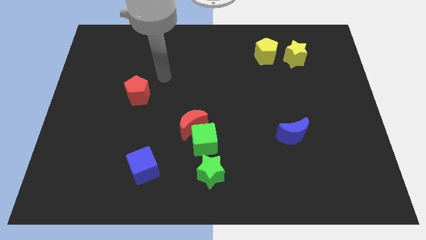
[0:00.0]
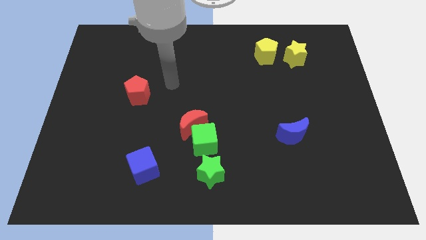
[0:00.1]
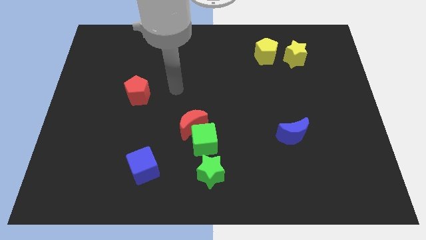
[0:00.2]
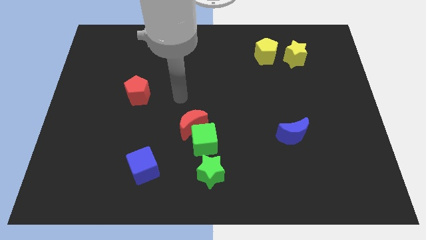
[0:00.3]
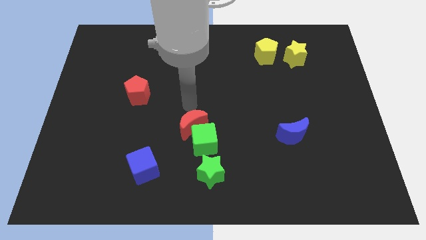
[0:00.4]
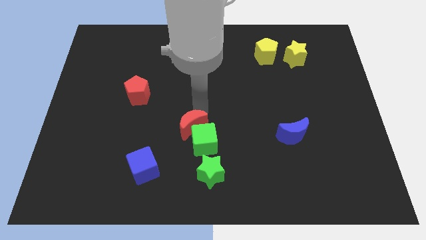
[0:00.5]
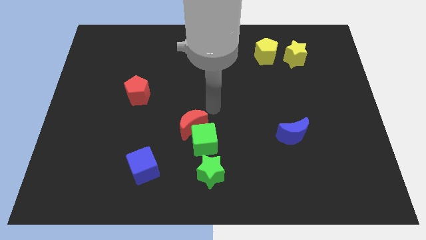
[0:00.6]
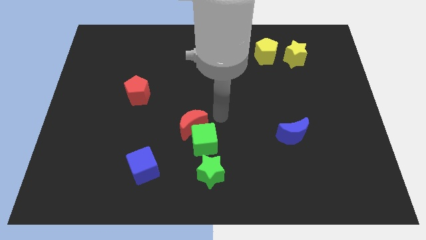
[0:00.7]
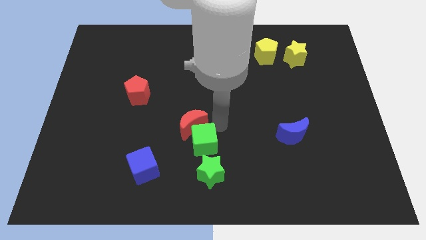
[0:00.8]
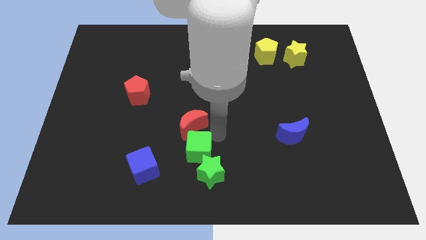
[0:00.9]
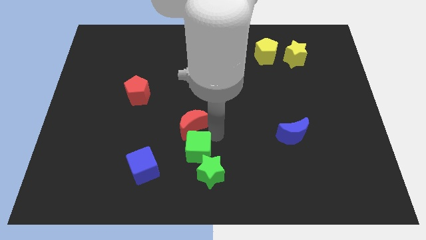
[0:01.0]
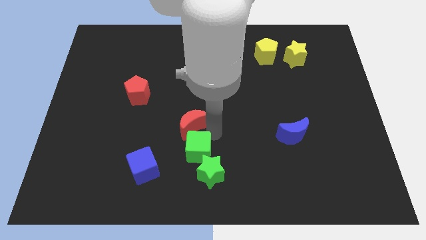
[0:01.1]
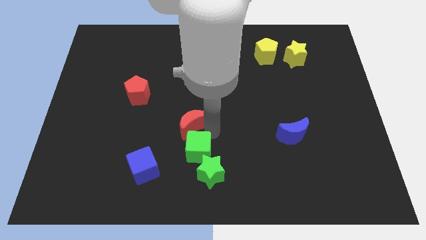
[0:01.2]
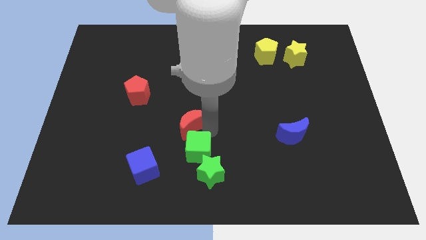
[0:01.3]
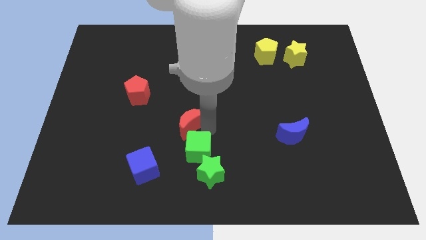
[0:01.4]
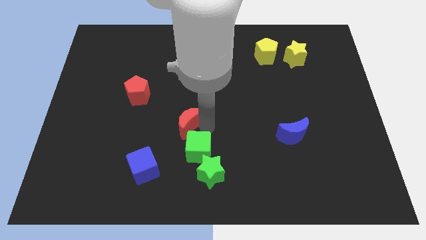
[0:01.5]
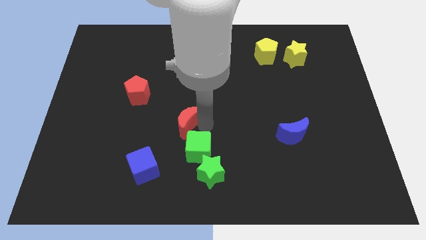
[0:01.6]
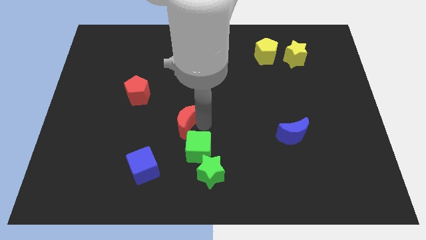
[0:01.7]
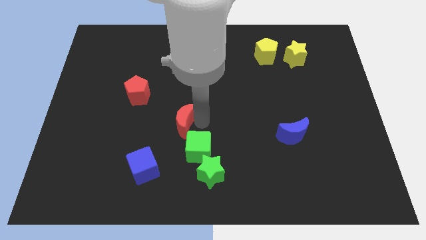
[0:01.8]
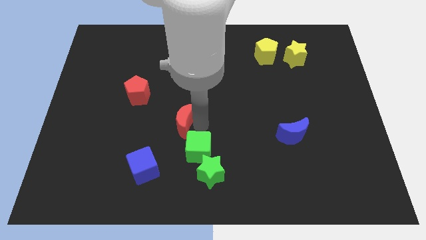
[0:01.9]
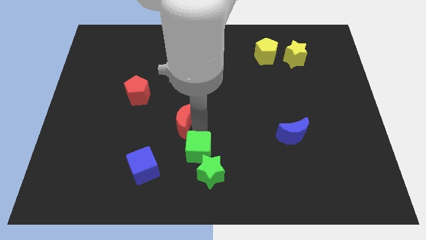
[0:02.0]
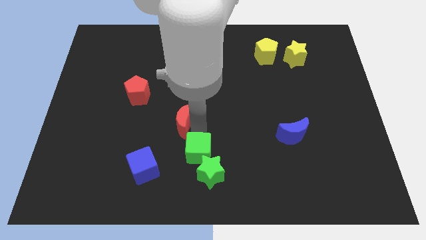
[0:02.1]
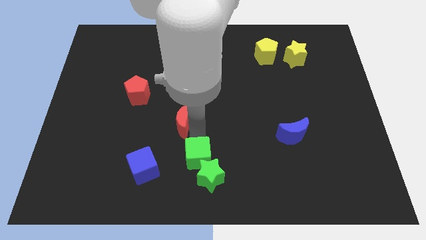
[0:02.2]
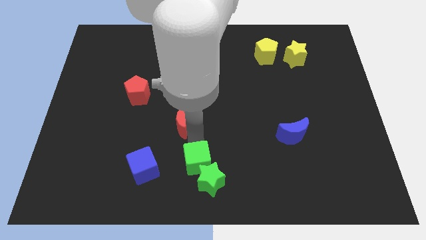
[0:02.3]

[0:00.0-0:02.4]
pull the red moon apart from the green cube

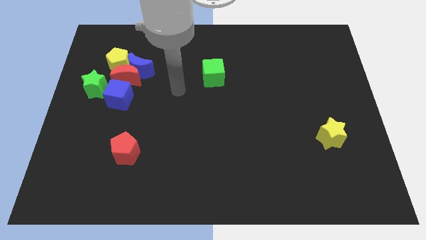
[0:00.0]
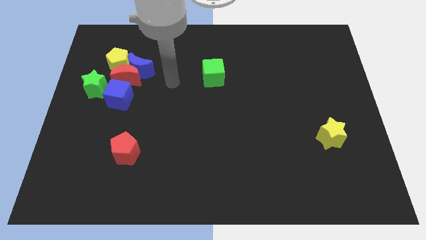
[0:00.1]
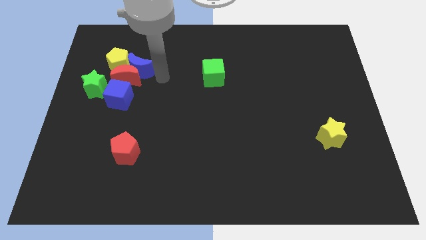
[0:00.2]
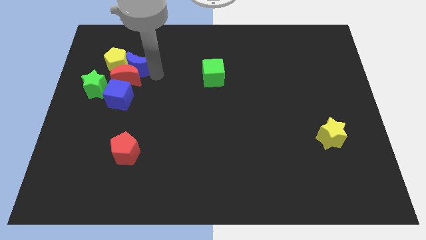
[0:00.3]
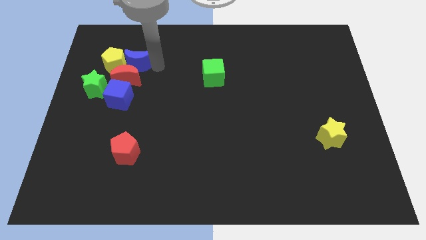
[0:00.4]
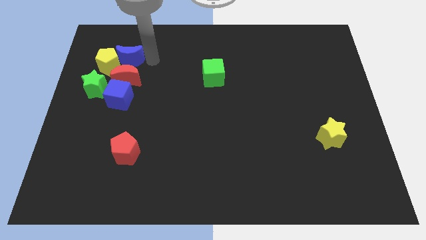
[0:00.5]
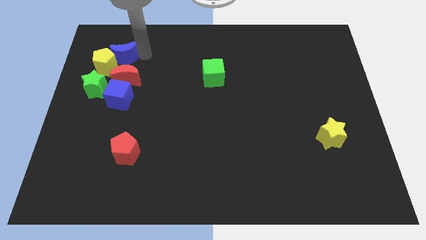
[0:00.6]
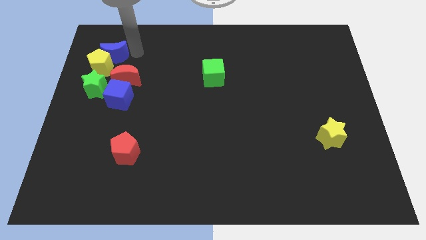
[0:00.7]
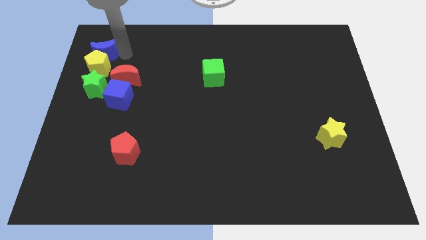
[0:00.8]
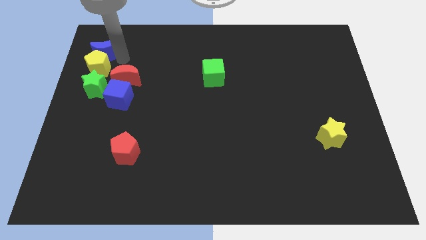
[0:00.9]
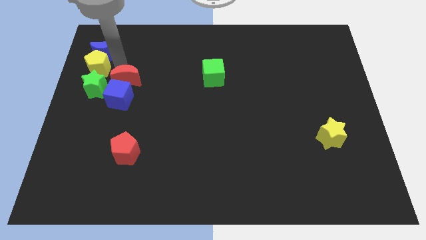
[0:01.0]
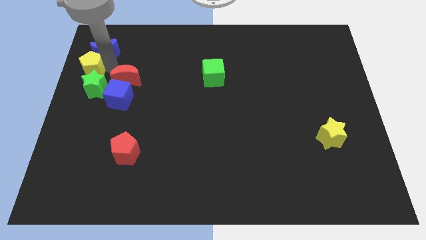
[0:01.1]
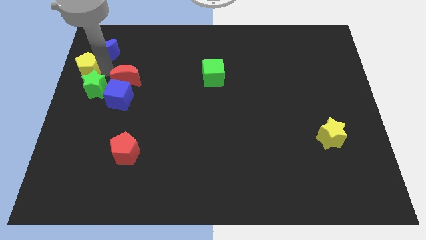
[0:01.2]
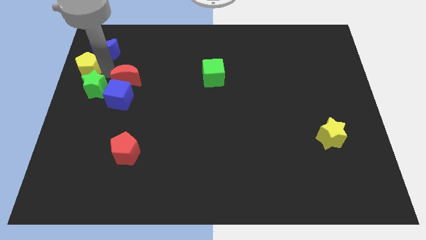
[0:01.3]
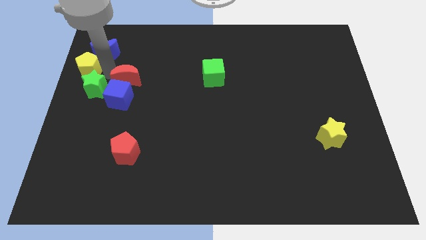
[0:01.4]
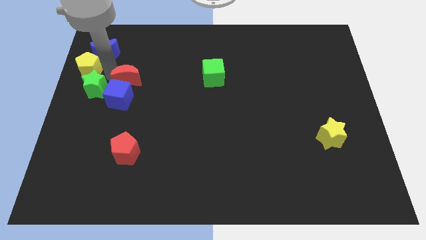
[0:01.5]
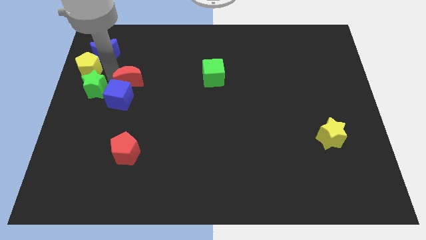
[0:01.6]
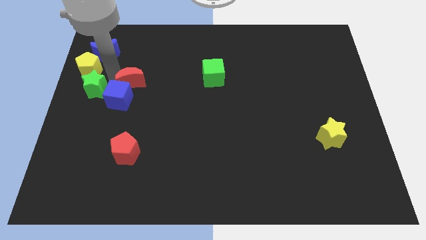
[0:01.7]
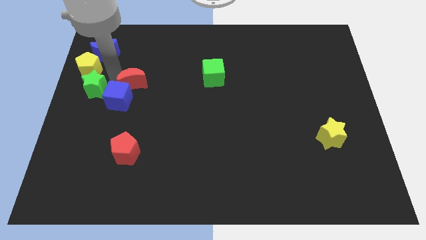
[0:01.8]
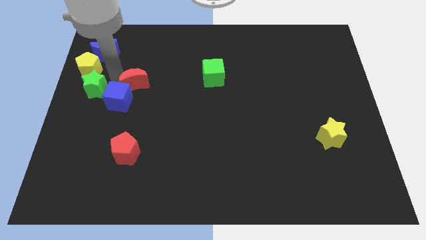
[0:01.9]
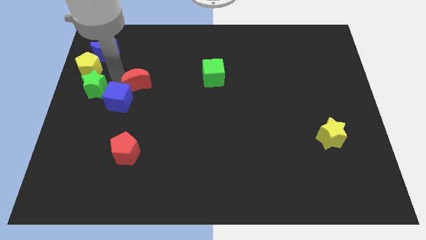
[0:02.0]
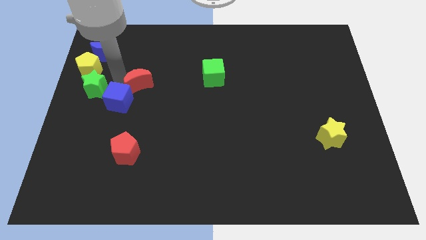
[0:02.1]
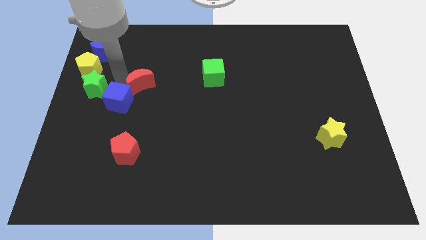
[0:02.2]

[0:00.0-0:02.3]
pull the red moon apart from the group of blocks

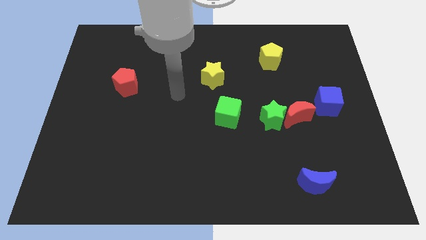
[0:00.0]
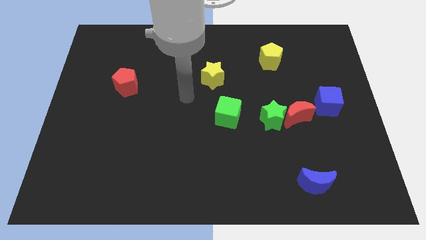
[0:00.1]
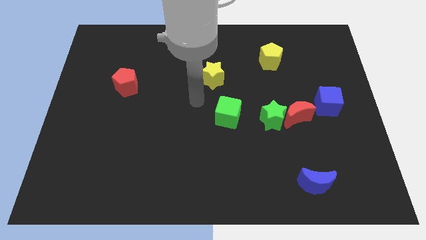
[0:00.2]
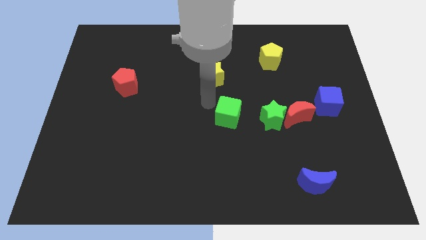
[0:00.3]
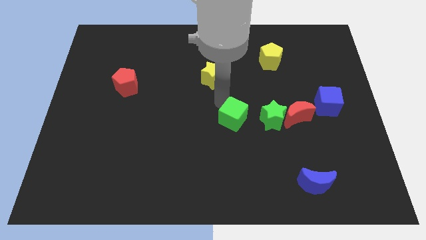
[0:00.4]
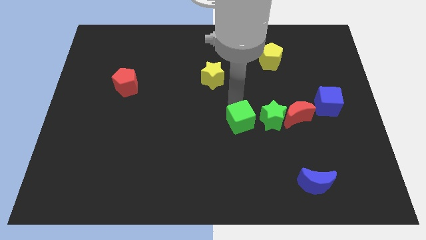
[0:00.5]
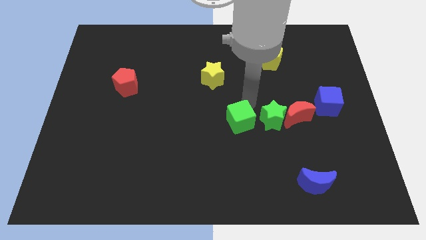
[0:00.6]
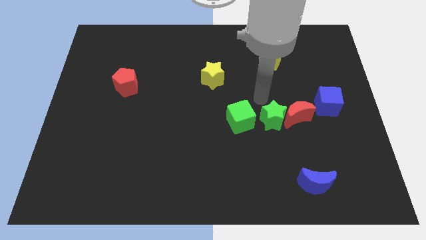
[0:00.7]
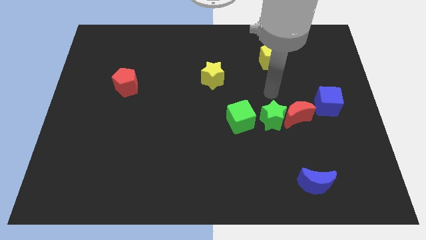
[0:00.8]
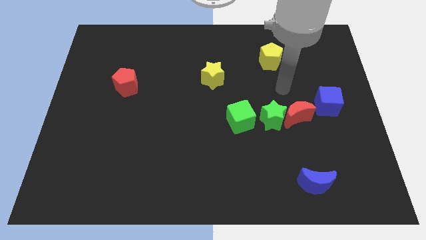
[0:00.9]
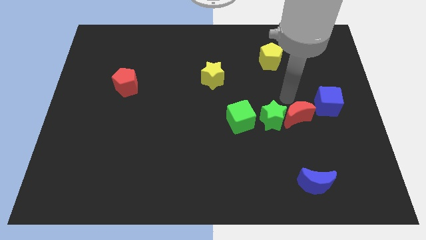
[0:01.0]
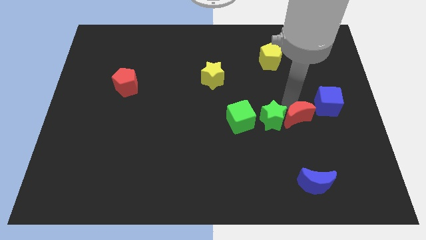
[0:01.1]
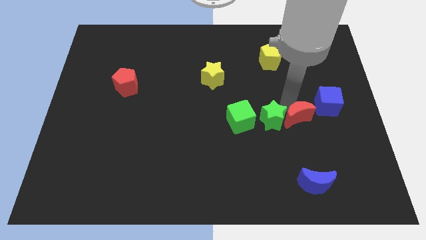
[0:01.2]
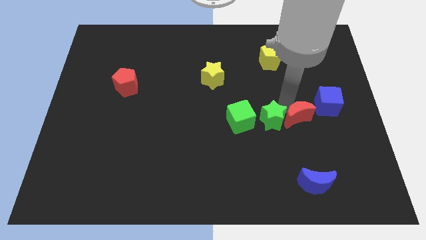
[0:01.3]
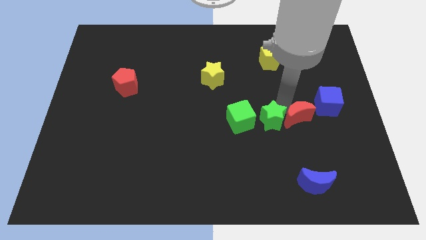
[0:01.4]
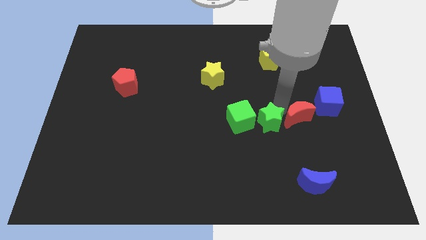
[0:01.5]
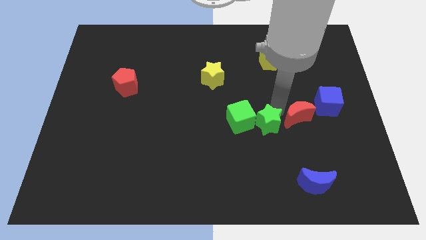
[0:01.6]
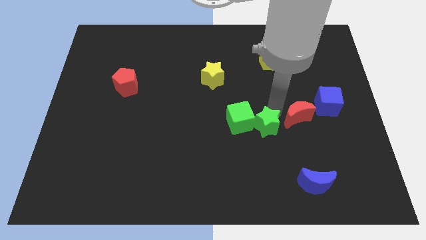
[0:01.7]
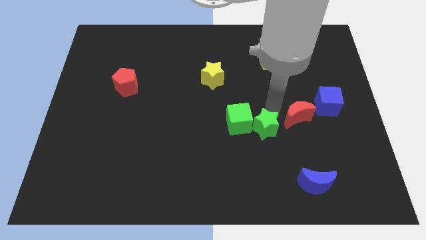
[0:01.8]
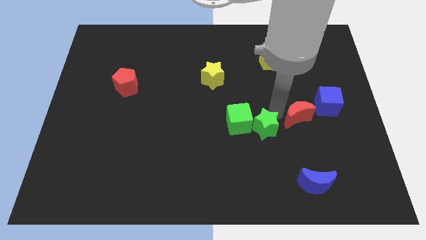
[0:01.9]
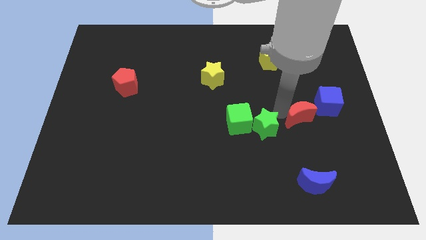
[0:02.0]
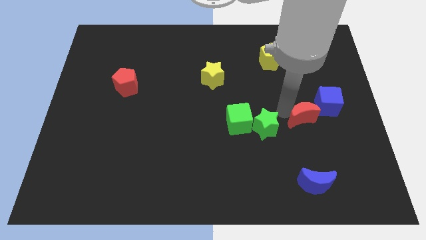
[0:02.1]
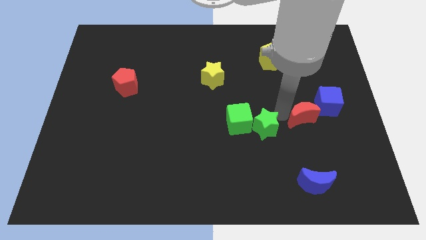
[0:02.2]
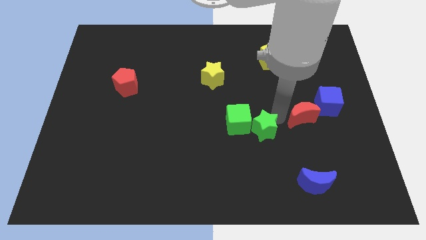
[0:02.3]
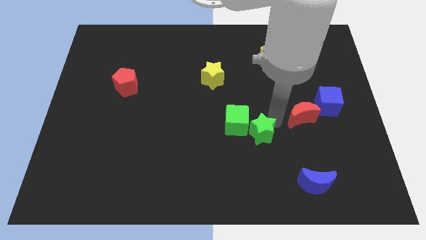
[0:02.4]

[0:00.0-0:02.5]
move the green star away from the red moon

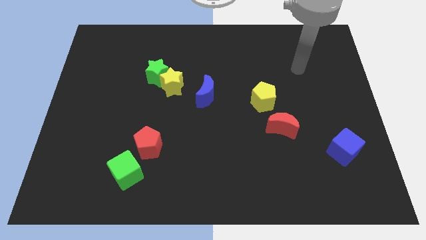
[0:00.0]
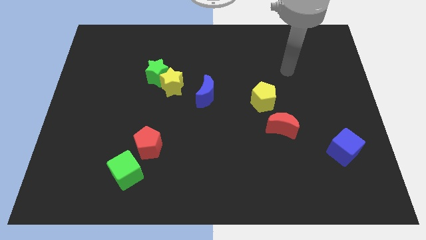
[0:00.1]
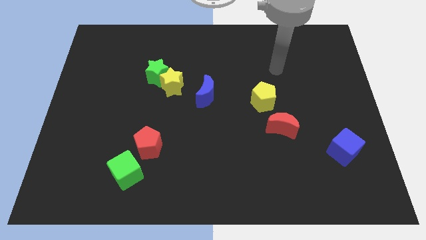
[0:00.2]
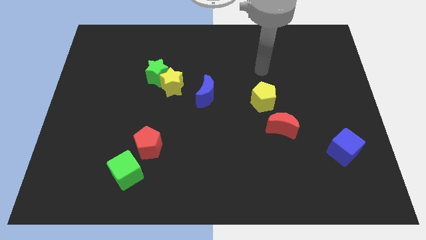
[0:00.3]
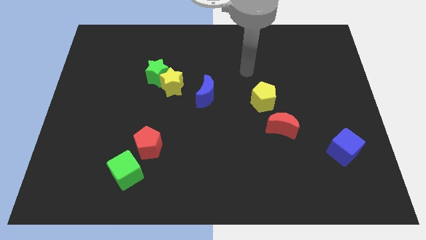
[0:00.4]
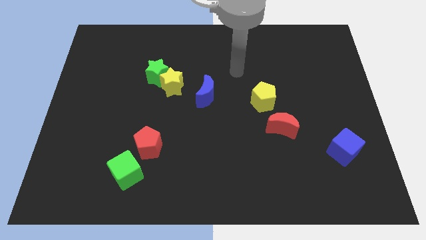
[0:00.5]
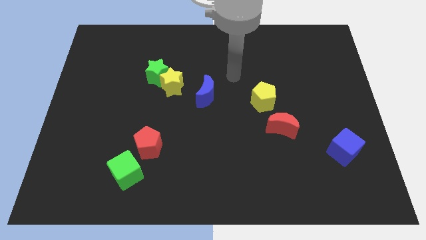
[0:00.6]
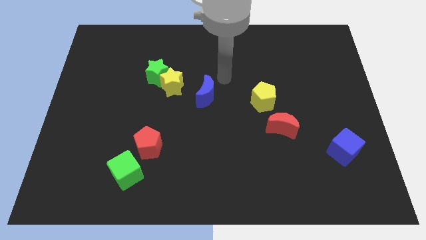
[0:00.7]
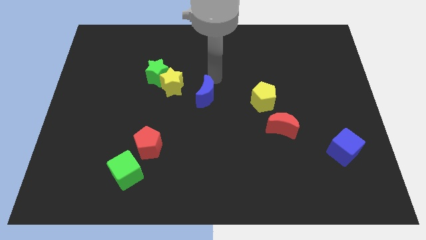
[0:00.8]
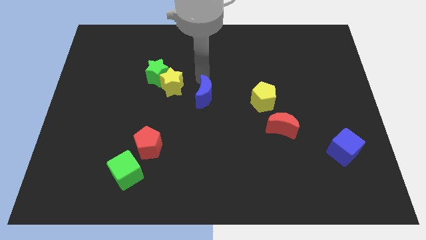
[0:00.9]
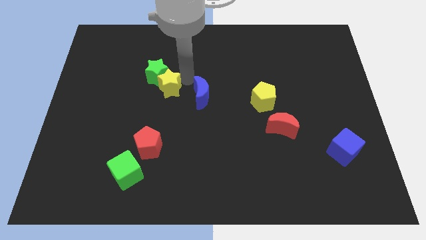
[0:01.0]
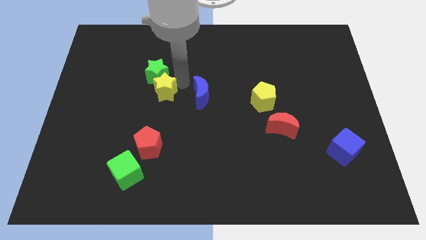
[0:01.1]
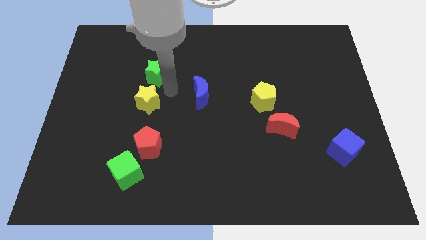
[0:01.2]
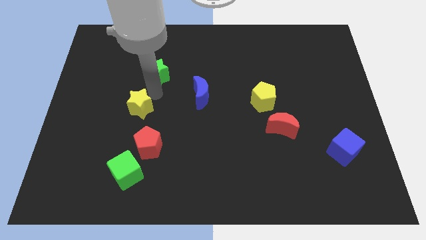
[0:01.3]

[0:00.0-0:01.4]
move the green star away from the yellow star

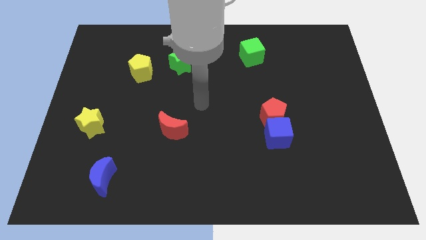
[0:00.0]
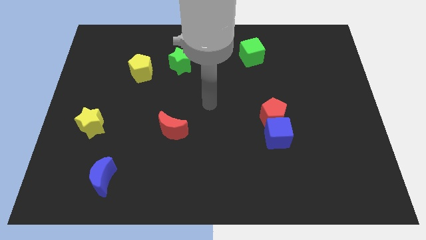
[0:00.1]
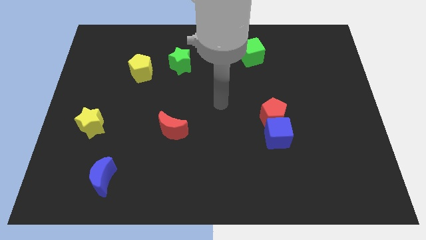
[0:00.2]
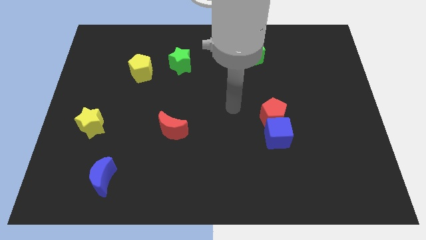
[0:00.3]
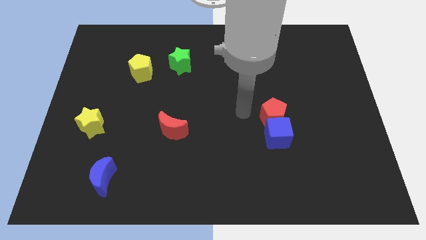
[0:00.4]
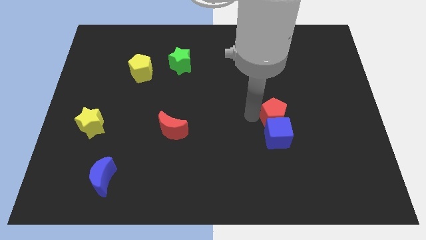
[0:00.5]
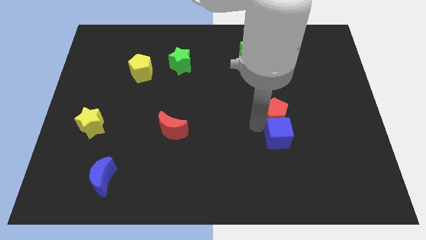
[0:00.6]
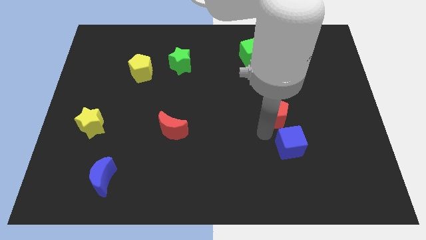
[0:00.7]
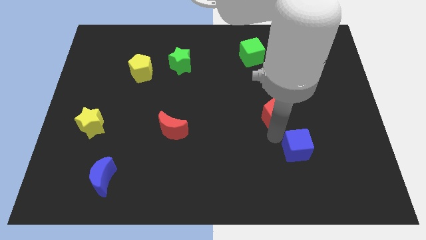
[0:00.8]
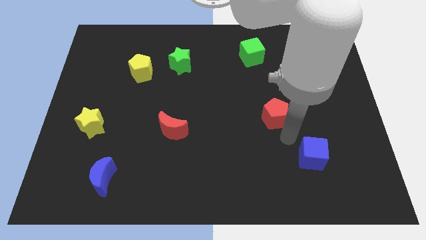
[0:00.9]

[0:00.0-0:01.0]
move the red pentagon away from the blue cube
